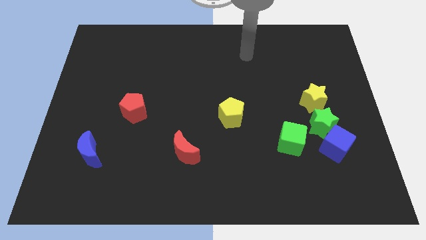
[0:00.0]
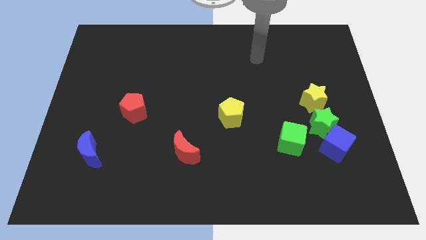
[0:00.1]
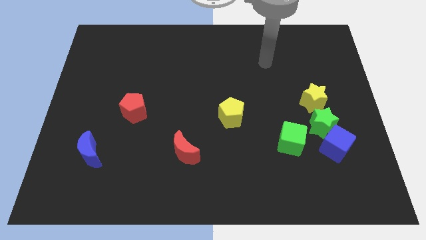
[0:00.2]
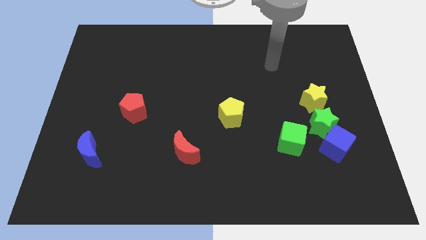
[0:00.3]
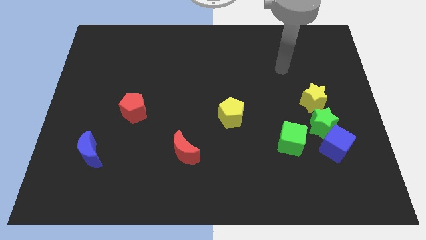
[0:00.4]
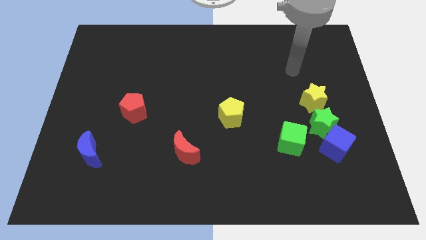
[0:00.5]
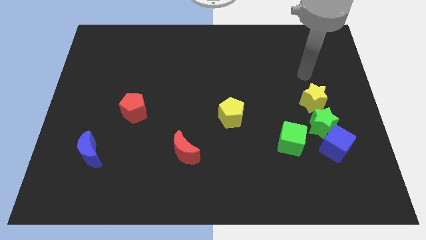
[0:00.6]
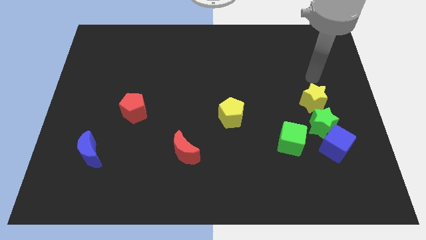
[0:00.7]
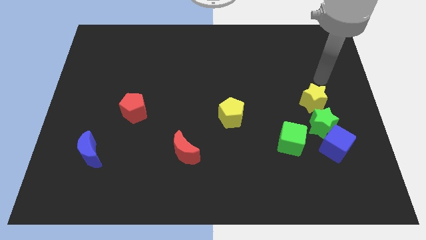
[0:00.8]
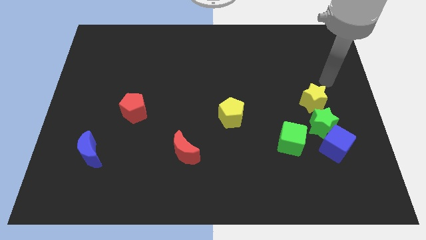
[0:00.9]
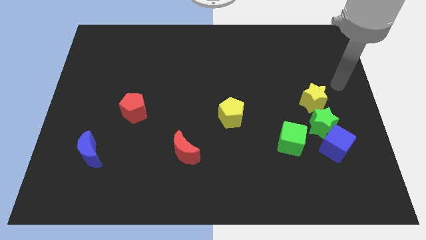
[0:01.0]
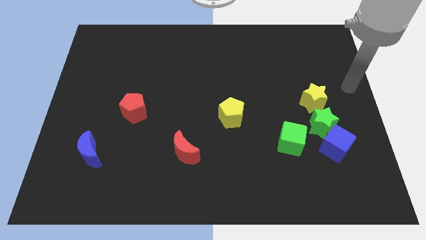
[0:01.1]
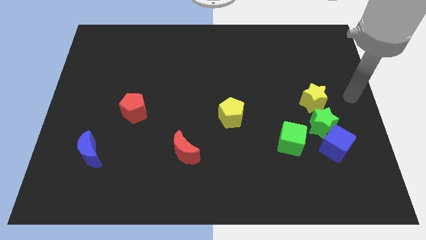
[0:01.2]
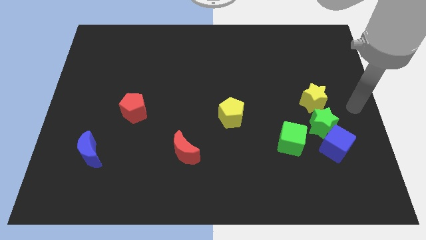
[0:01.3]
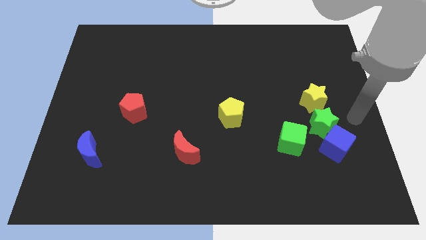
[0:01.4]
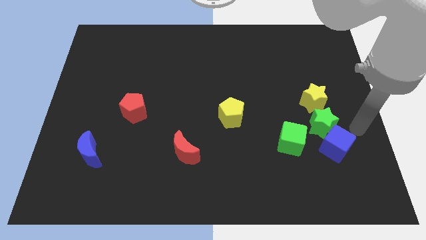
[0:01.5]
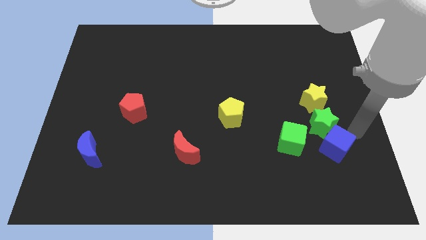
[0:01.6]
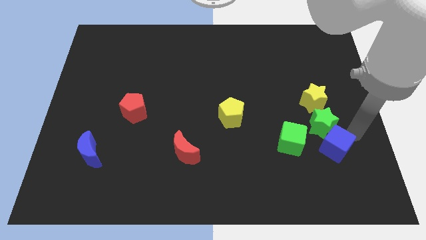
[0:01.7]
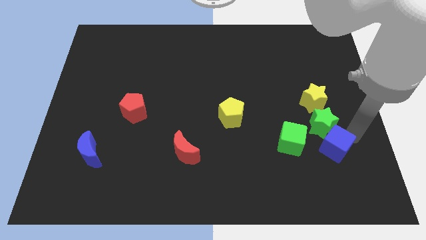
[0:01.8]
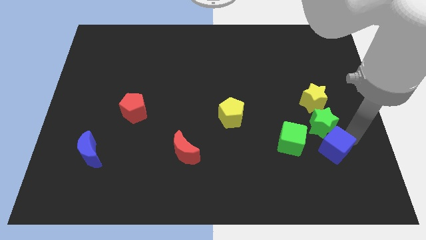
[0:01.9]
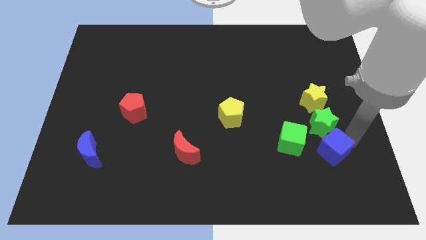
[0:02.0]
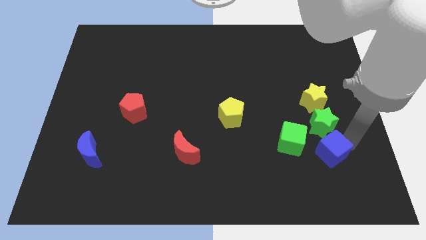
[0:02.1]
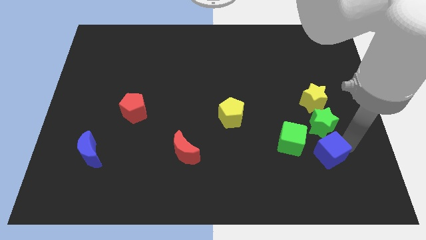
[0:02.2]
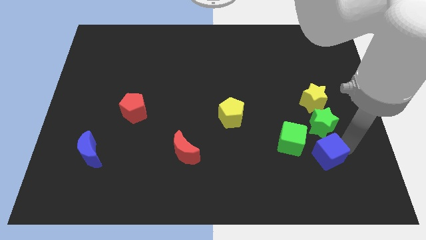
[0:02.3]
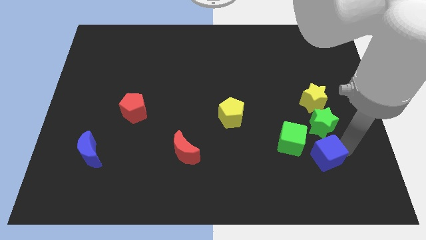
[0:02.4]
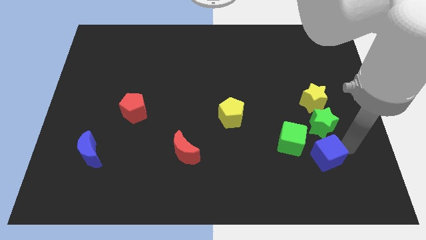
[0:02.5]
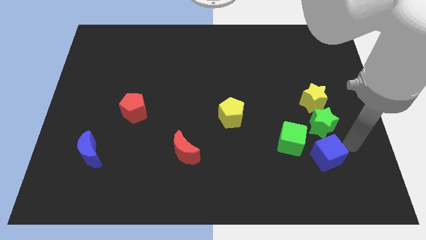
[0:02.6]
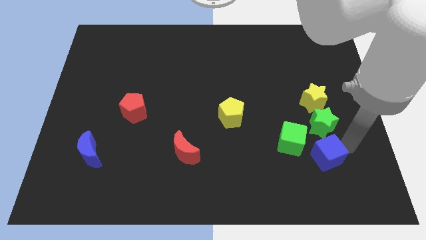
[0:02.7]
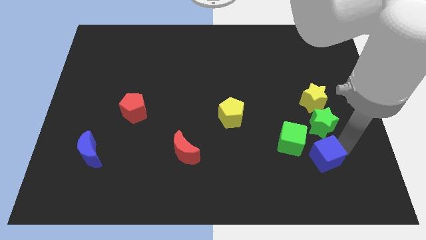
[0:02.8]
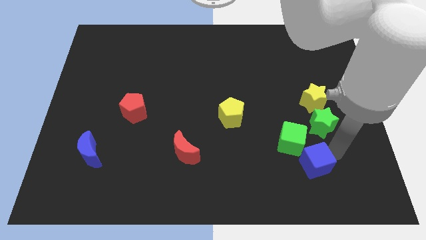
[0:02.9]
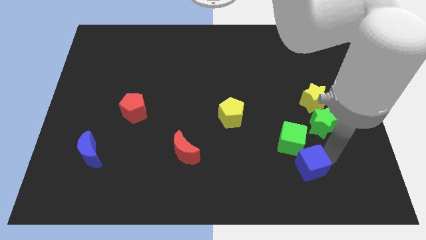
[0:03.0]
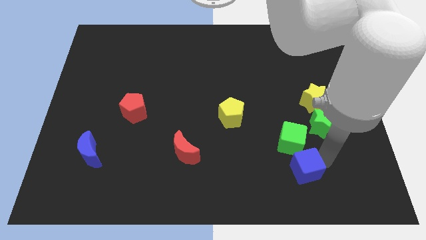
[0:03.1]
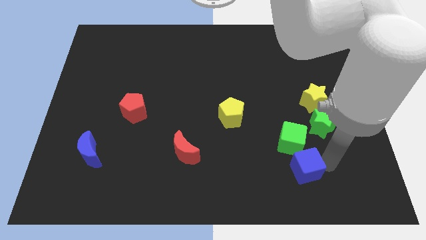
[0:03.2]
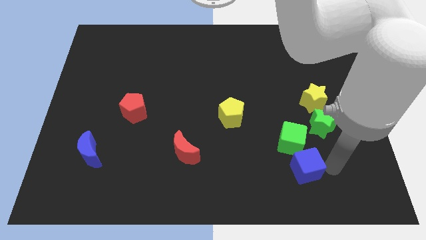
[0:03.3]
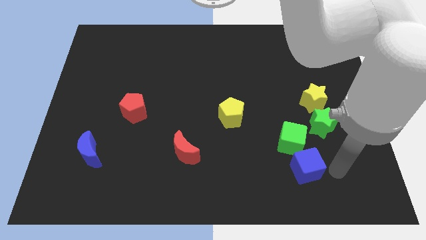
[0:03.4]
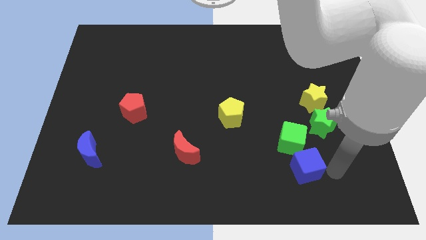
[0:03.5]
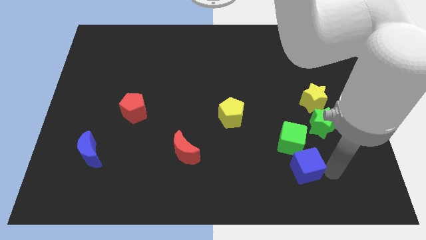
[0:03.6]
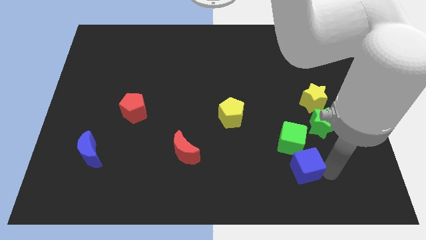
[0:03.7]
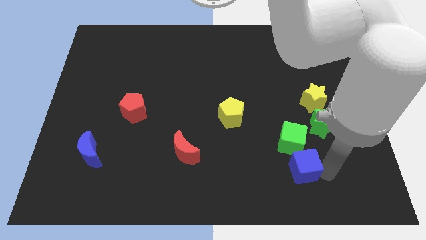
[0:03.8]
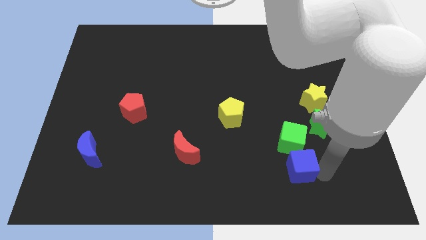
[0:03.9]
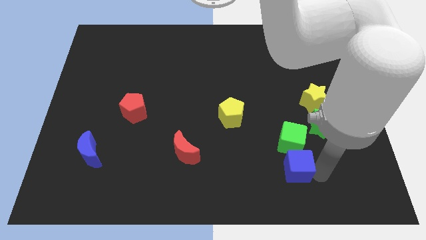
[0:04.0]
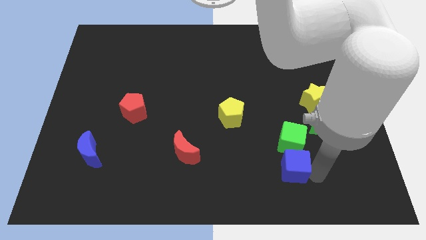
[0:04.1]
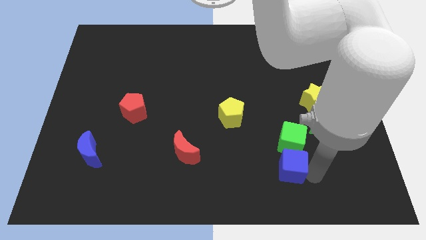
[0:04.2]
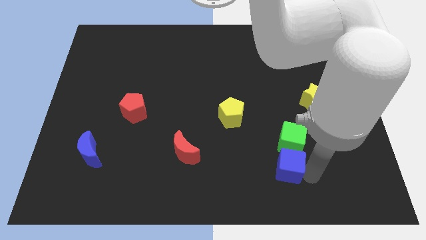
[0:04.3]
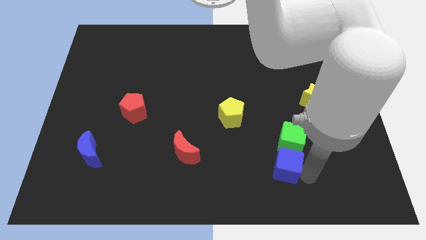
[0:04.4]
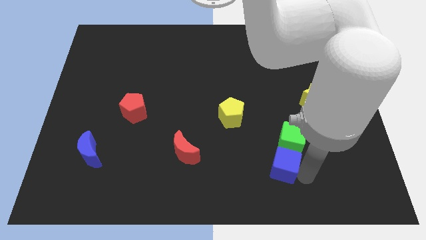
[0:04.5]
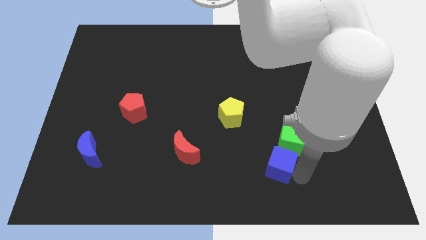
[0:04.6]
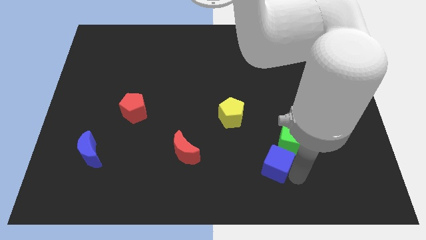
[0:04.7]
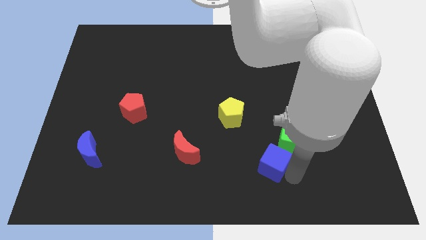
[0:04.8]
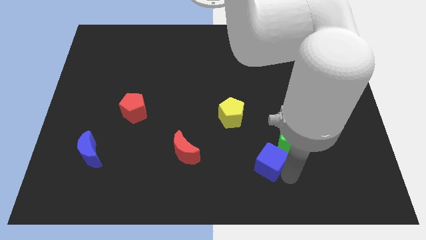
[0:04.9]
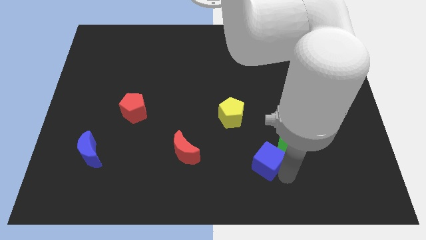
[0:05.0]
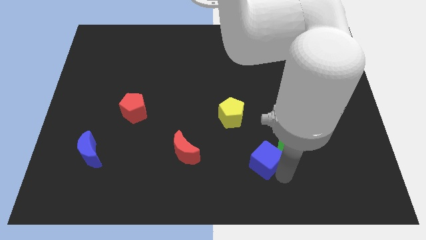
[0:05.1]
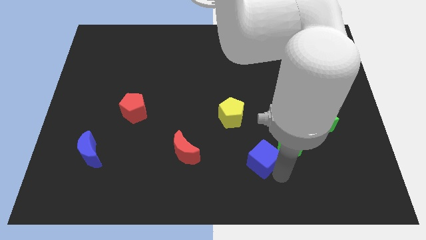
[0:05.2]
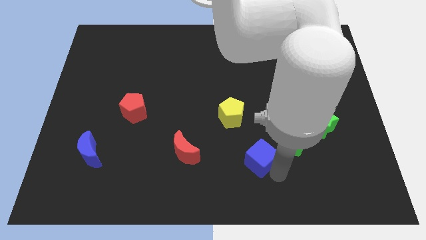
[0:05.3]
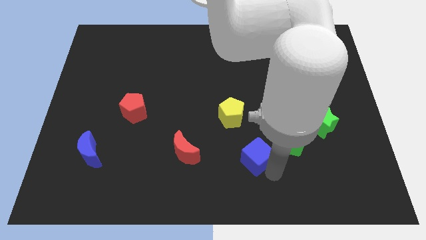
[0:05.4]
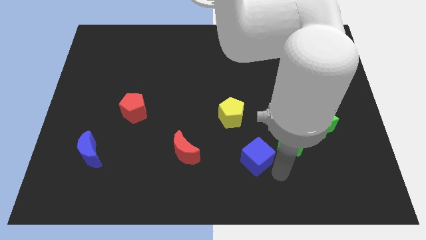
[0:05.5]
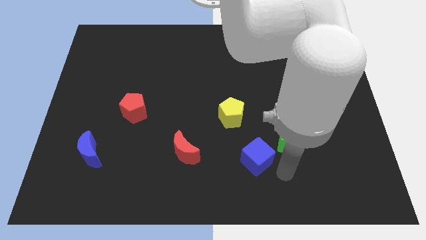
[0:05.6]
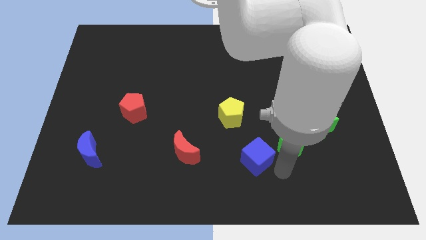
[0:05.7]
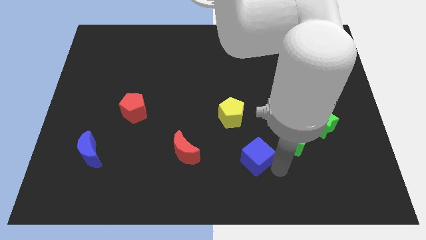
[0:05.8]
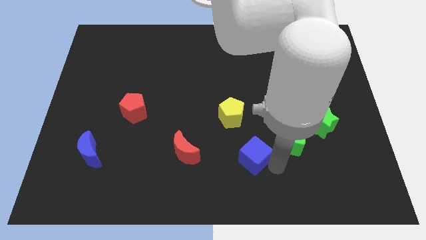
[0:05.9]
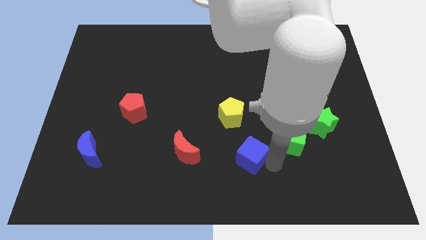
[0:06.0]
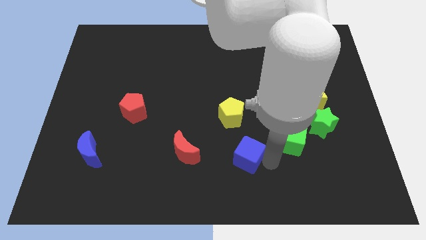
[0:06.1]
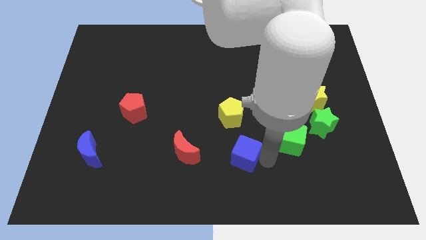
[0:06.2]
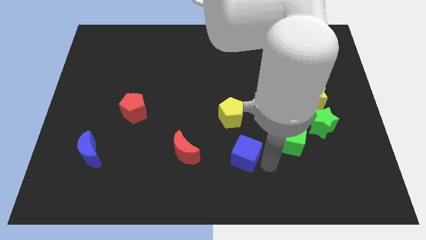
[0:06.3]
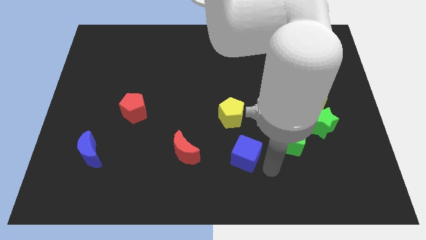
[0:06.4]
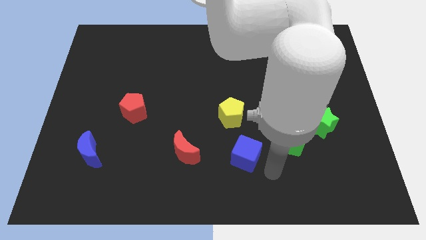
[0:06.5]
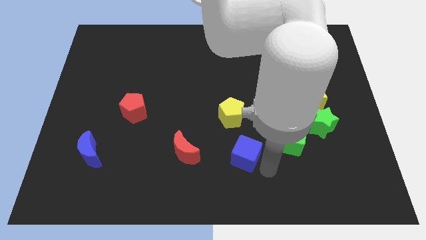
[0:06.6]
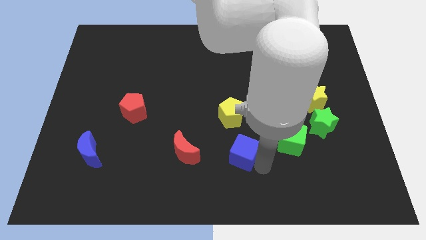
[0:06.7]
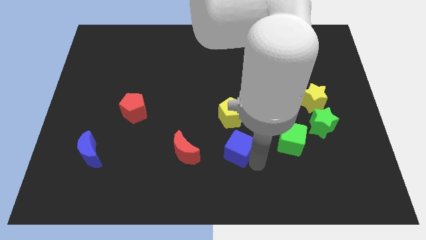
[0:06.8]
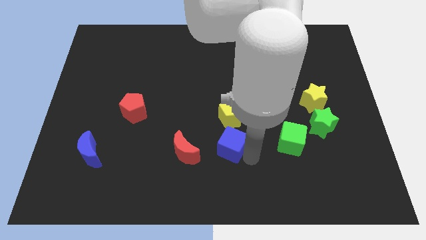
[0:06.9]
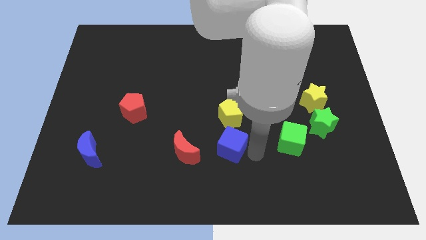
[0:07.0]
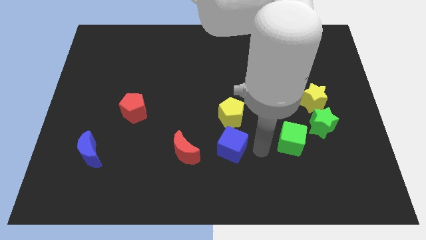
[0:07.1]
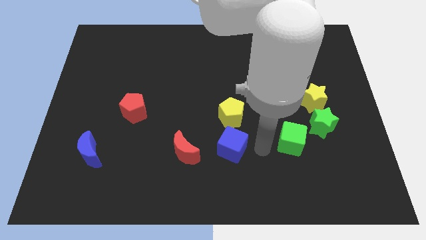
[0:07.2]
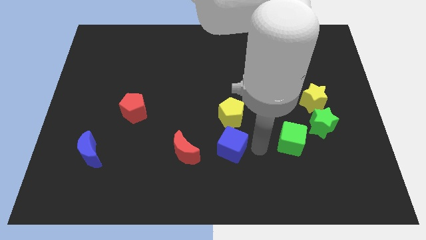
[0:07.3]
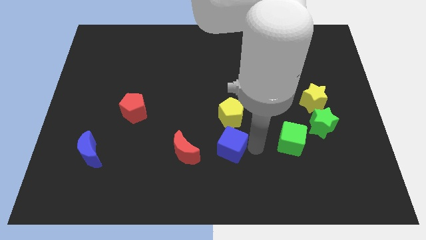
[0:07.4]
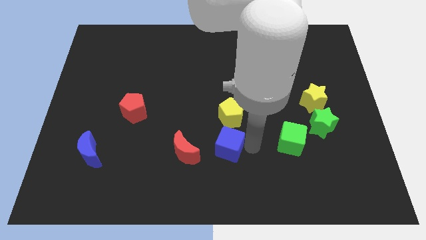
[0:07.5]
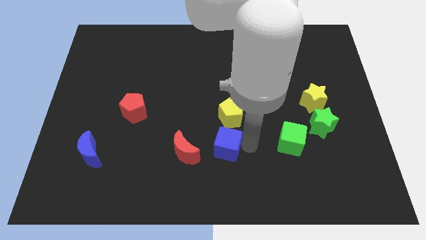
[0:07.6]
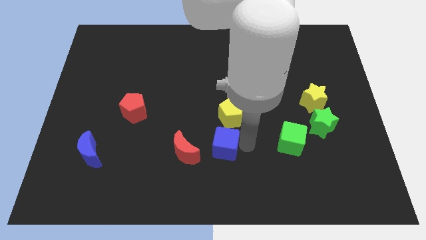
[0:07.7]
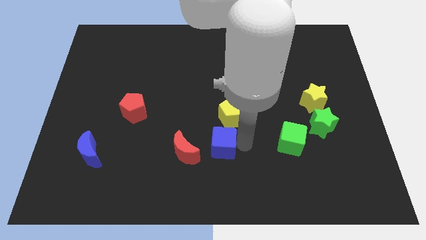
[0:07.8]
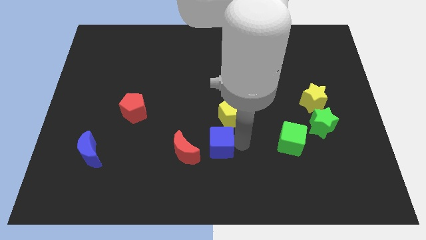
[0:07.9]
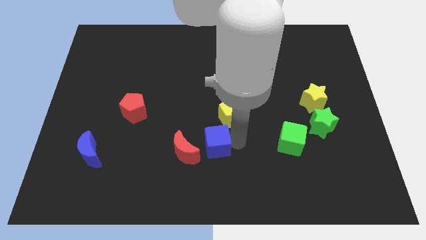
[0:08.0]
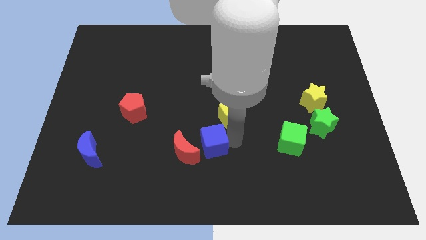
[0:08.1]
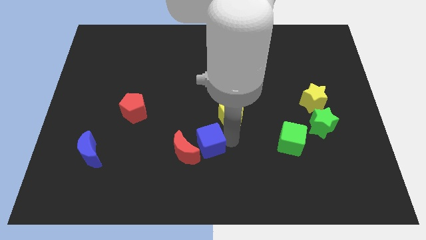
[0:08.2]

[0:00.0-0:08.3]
slide the blue cube to the red moon
